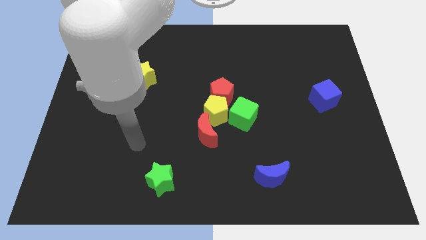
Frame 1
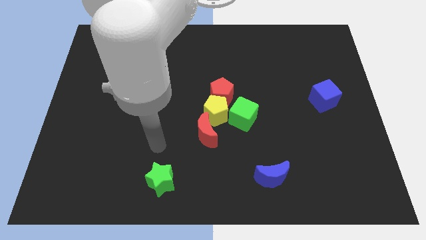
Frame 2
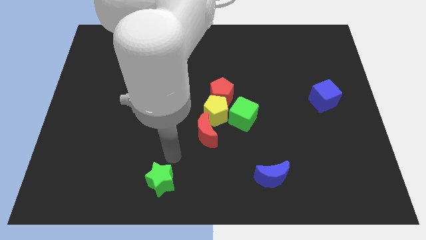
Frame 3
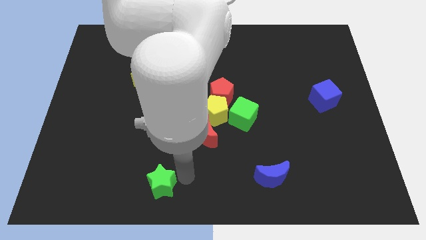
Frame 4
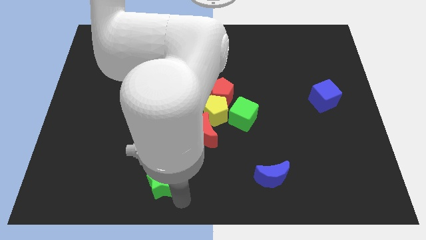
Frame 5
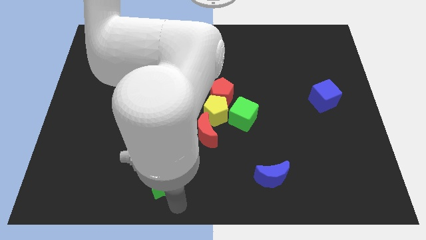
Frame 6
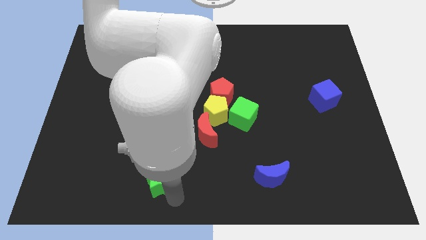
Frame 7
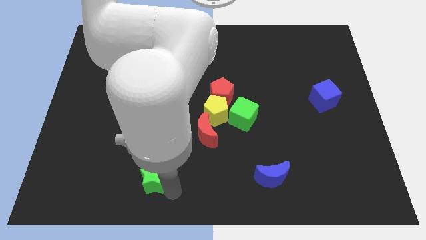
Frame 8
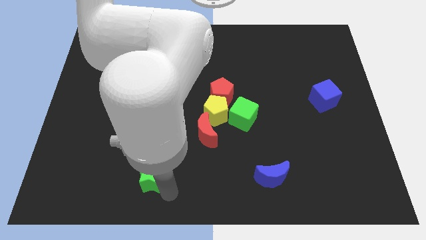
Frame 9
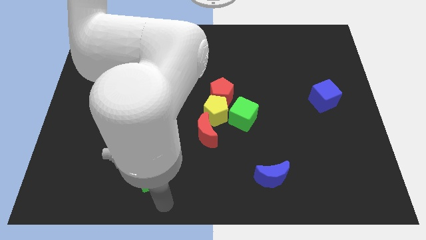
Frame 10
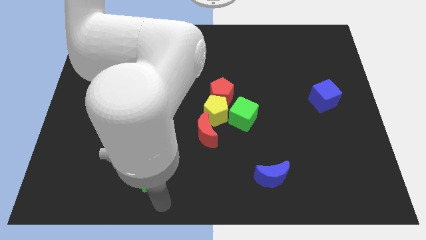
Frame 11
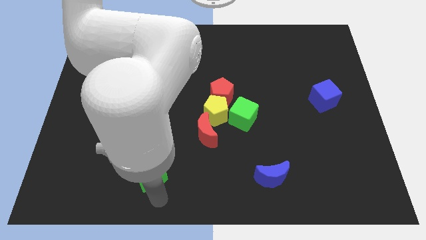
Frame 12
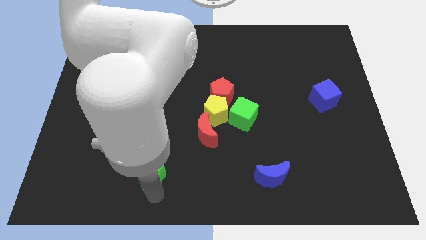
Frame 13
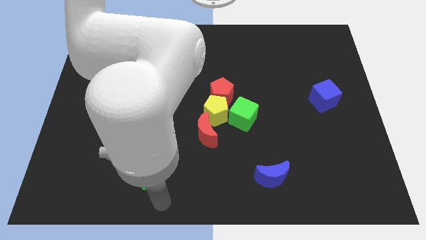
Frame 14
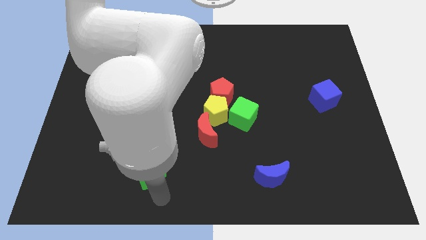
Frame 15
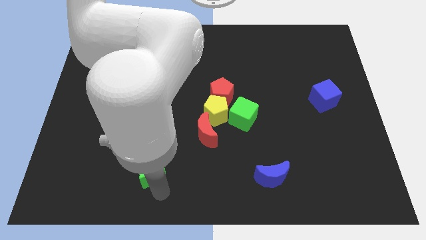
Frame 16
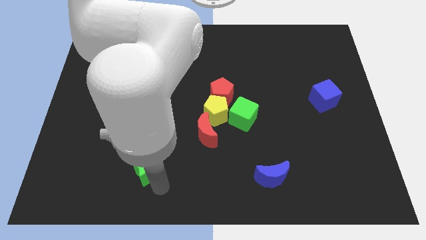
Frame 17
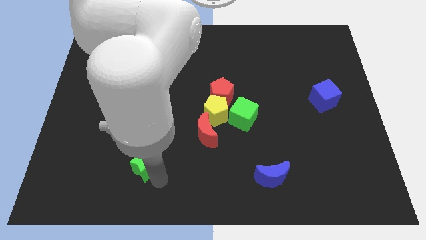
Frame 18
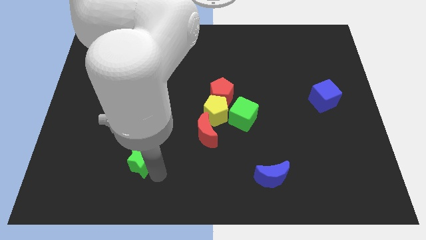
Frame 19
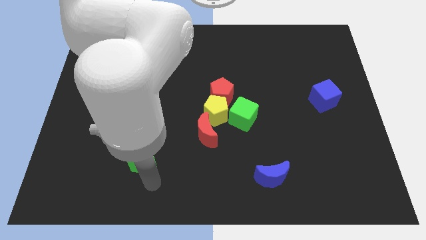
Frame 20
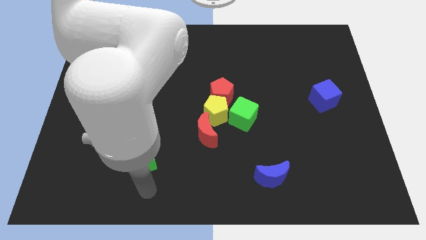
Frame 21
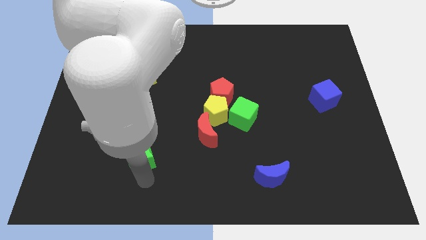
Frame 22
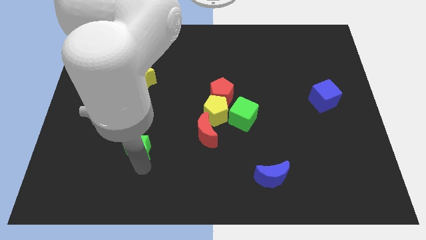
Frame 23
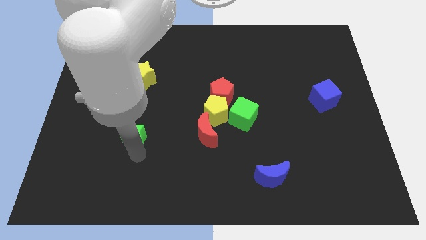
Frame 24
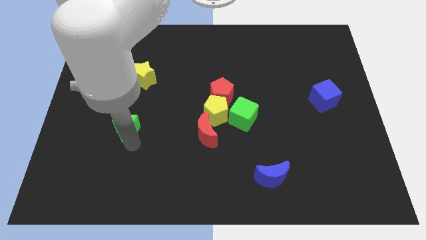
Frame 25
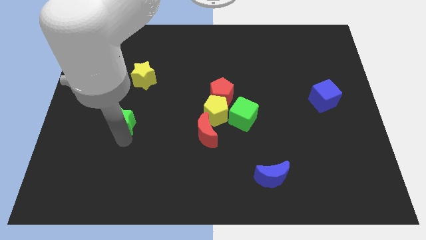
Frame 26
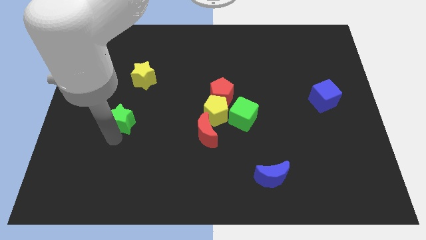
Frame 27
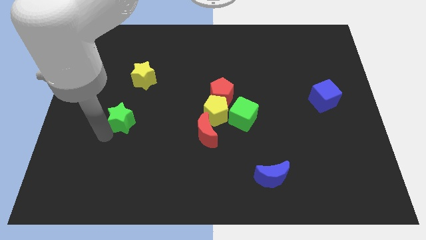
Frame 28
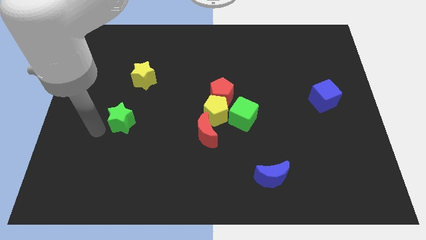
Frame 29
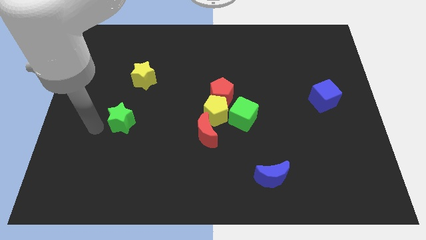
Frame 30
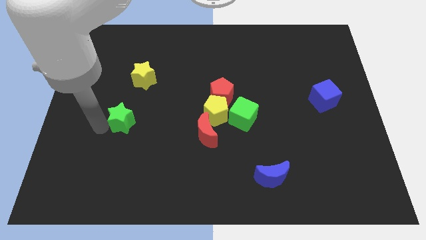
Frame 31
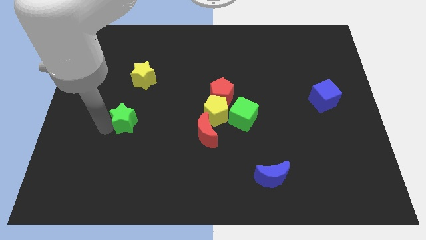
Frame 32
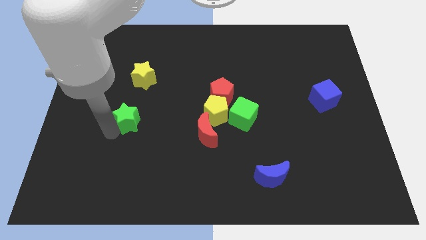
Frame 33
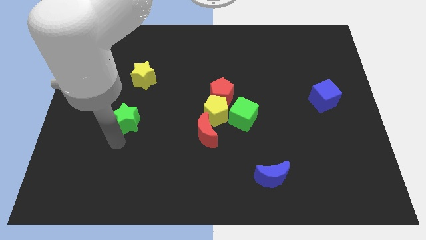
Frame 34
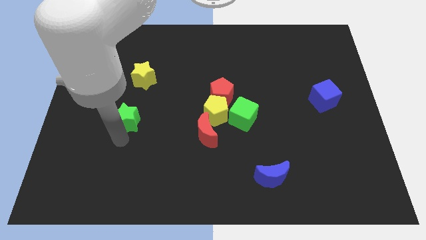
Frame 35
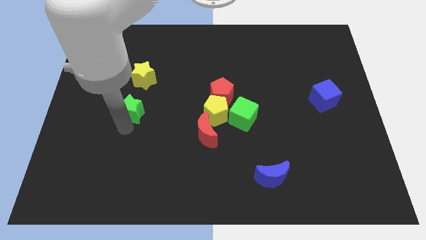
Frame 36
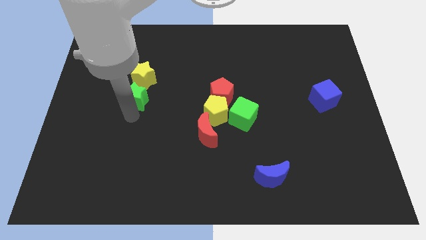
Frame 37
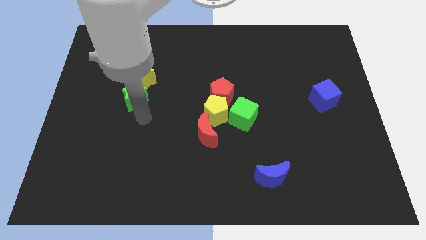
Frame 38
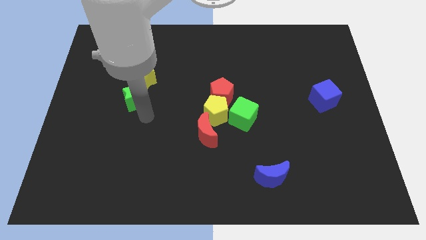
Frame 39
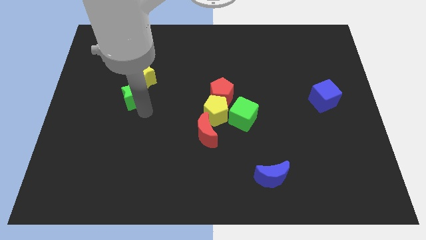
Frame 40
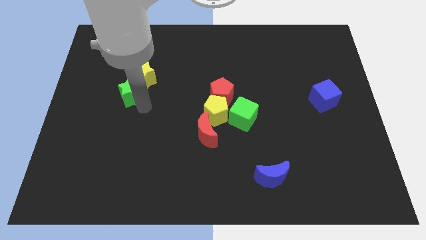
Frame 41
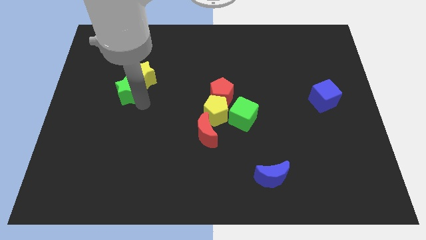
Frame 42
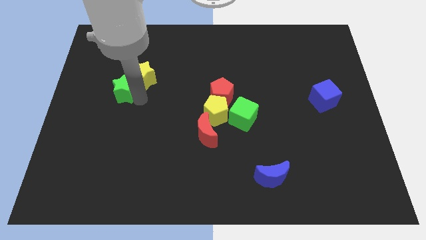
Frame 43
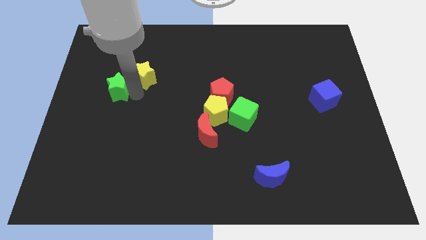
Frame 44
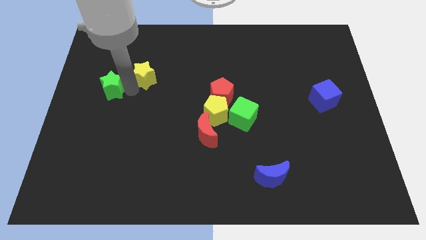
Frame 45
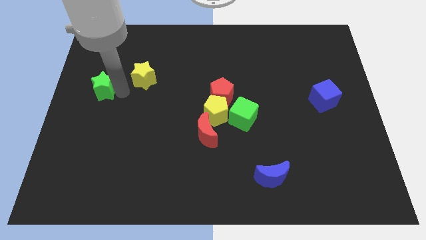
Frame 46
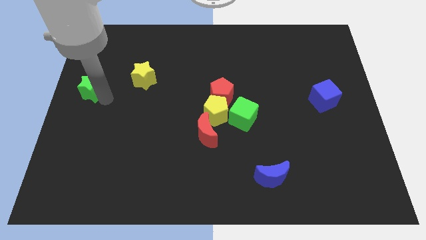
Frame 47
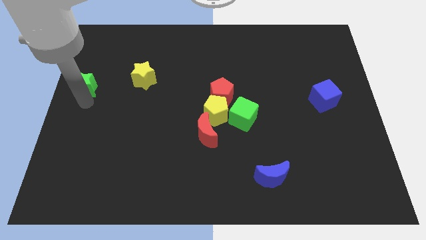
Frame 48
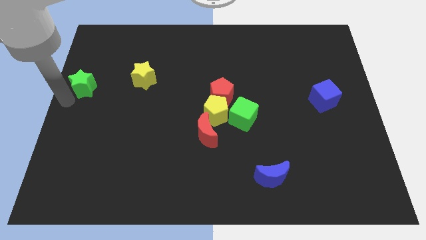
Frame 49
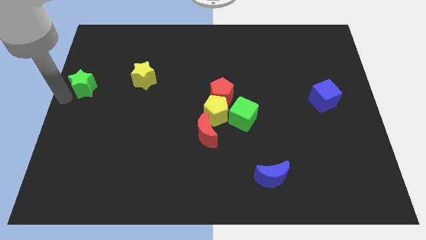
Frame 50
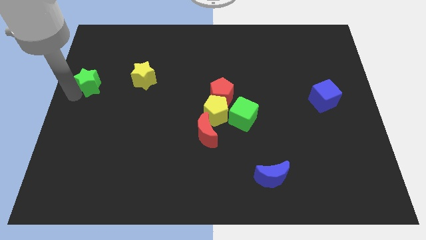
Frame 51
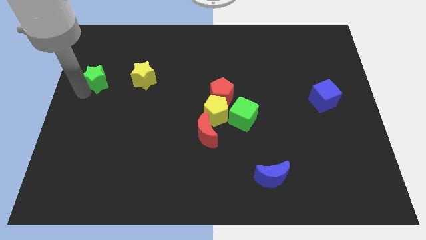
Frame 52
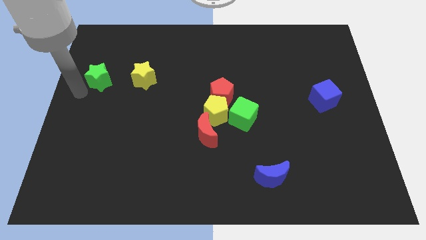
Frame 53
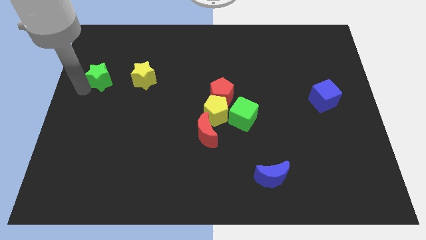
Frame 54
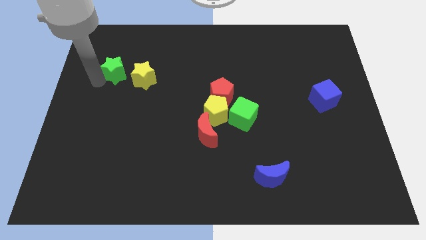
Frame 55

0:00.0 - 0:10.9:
move the green star diagonally up and to the left of the yellow star
